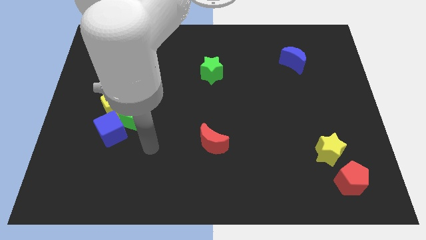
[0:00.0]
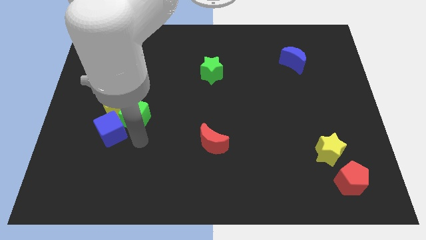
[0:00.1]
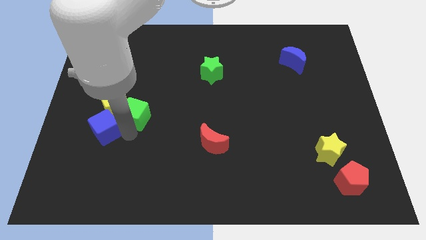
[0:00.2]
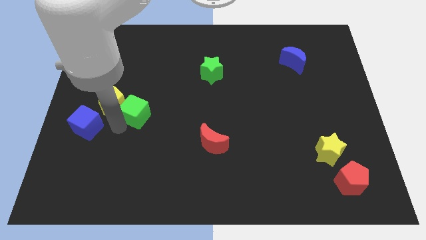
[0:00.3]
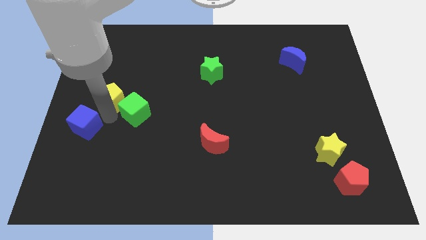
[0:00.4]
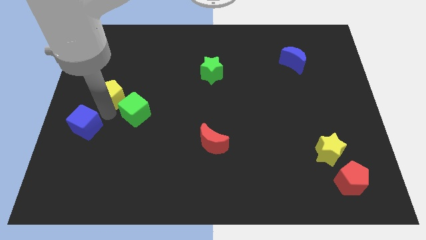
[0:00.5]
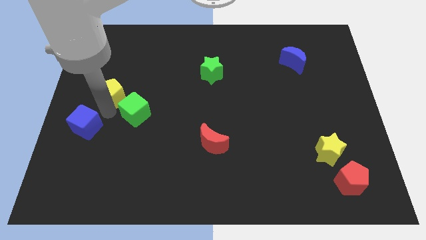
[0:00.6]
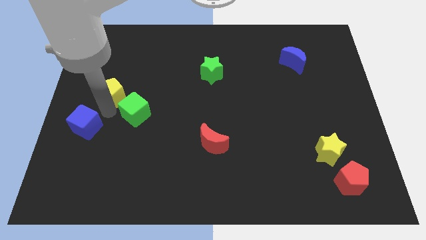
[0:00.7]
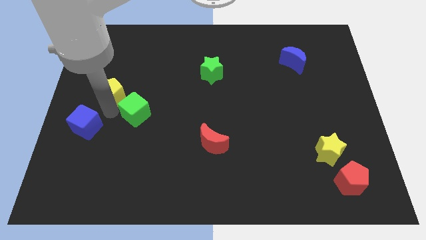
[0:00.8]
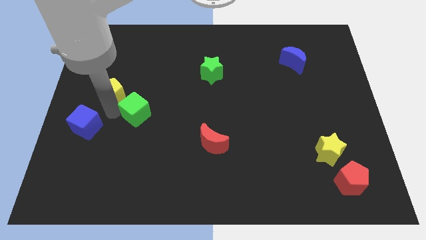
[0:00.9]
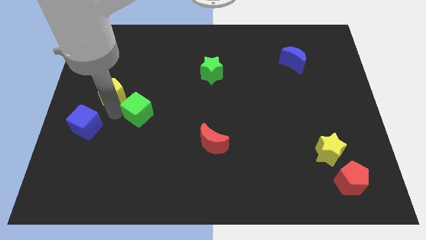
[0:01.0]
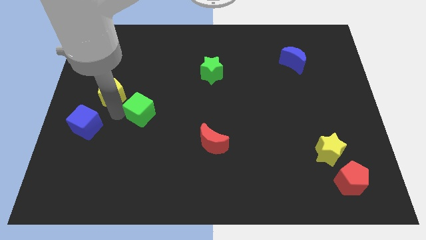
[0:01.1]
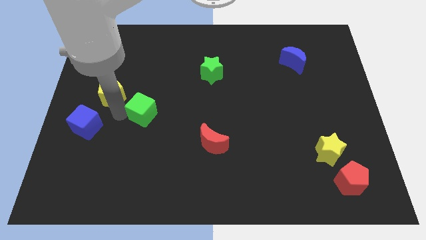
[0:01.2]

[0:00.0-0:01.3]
pull the green cube apart from the yellow pentagon and blue cube

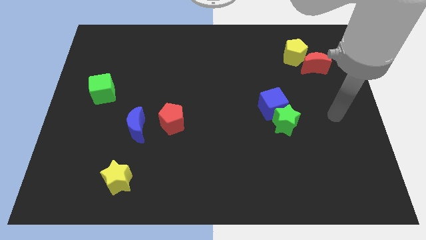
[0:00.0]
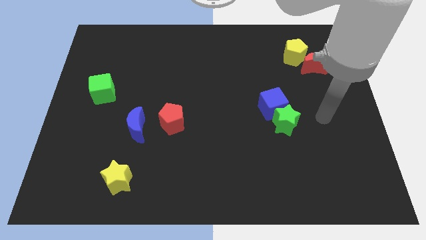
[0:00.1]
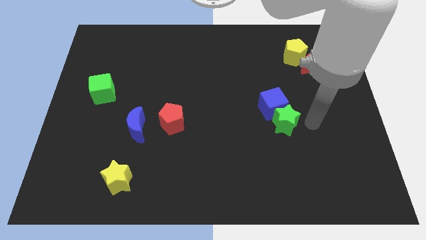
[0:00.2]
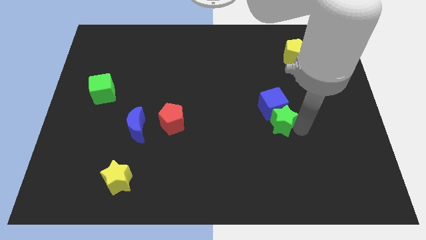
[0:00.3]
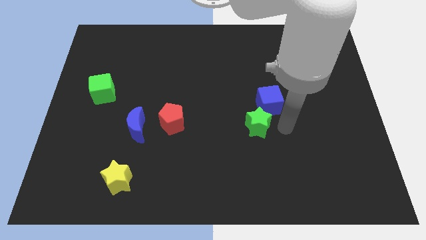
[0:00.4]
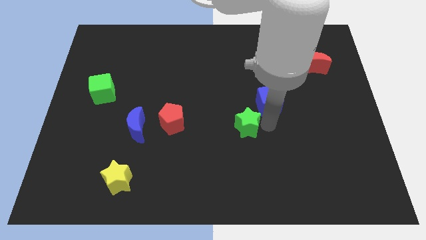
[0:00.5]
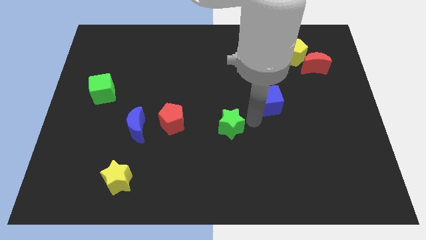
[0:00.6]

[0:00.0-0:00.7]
separate the blue cube from the green star

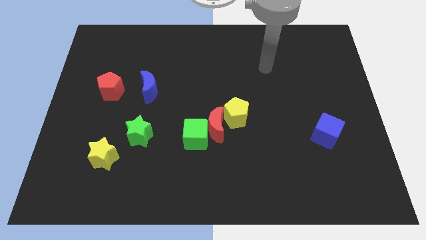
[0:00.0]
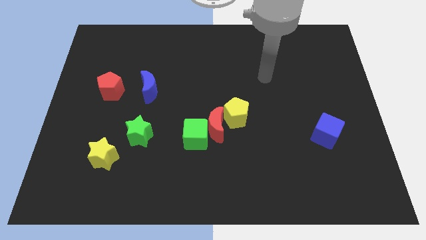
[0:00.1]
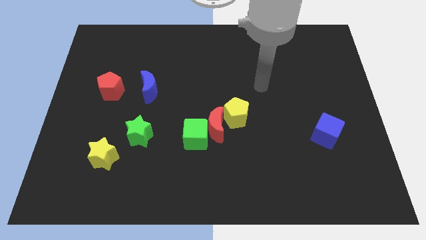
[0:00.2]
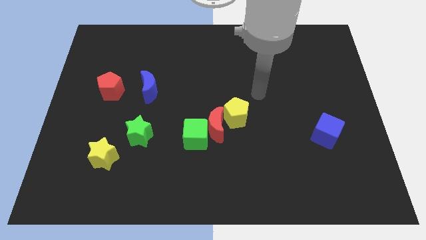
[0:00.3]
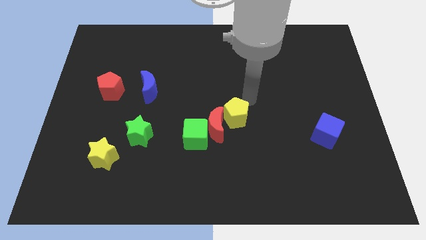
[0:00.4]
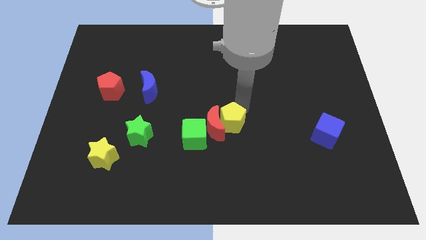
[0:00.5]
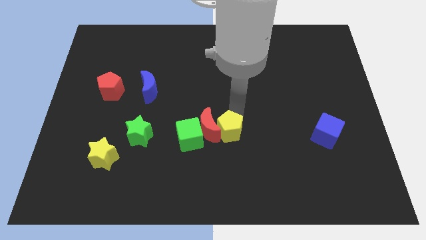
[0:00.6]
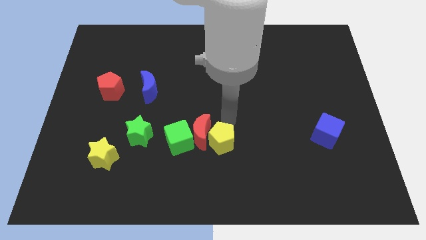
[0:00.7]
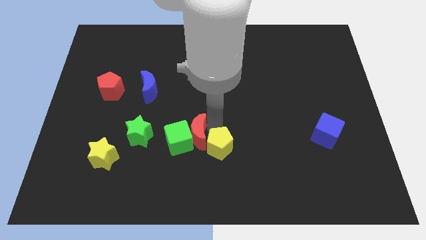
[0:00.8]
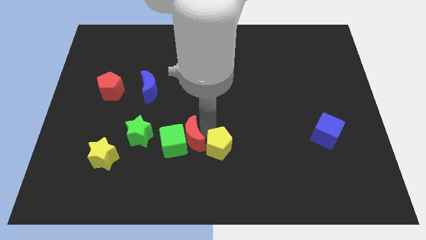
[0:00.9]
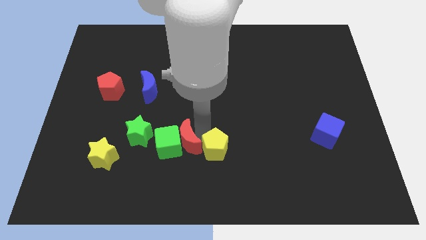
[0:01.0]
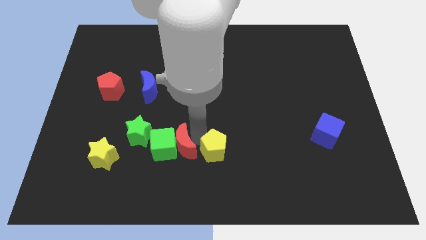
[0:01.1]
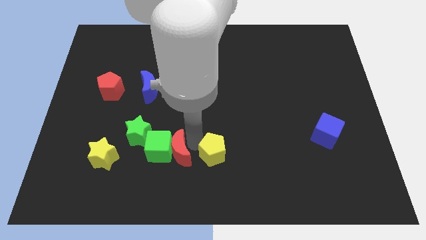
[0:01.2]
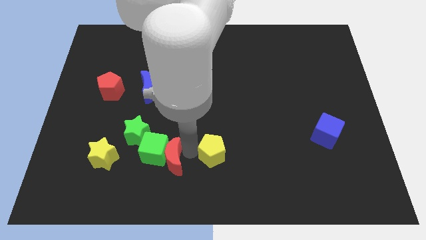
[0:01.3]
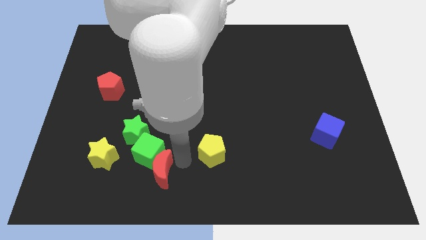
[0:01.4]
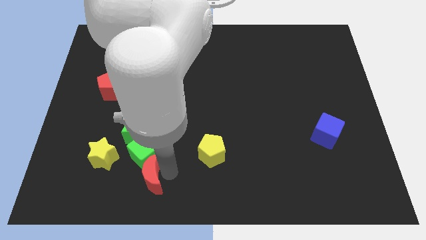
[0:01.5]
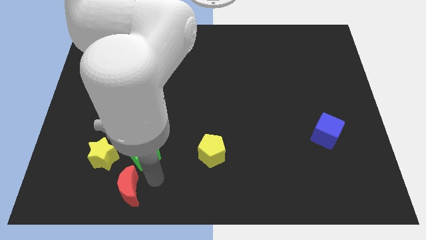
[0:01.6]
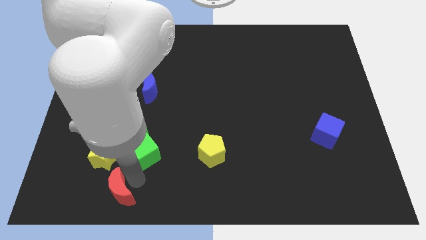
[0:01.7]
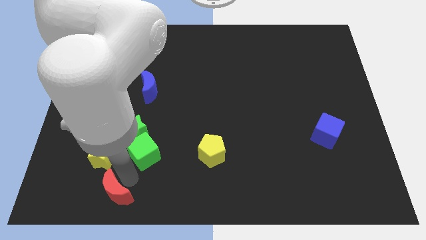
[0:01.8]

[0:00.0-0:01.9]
move the green cube away from the red moon

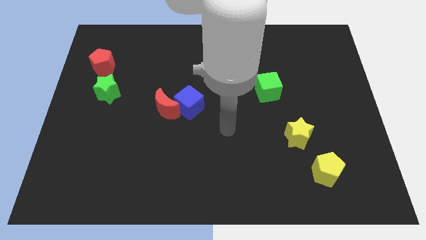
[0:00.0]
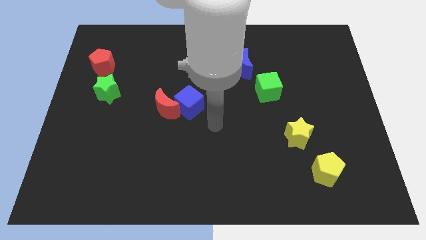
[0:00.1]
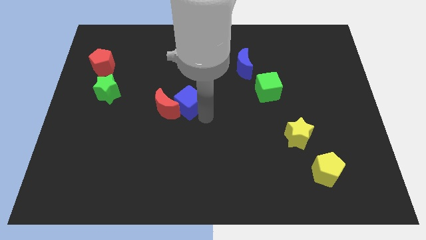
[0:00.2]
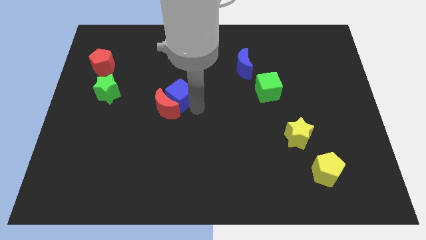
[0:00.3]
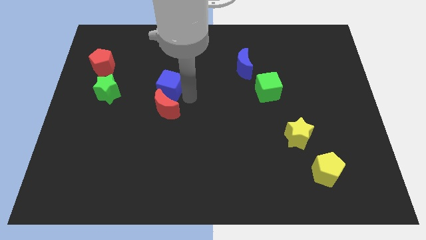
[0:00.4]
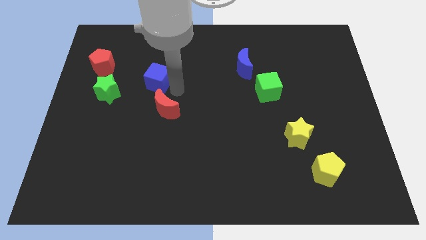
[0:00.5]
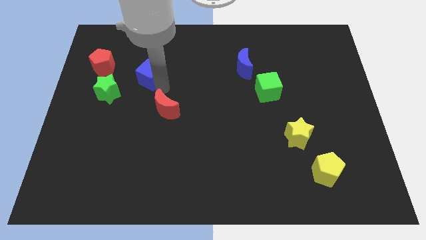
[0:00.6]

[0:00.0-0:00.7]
move the red moon away from the blue cube

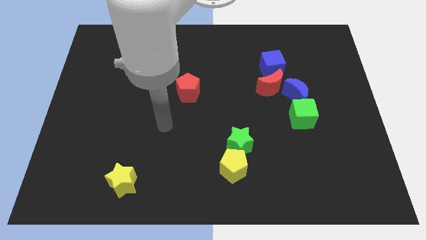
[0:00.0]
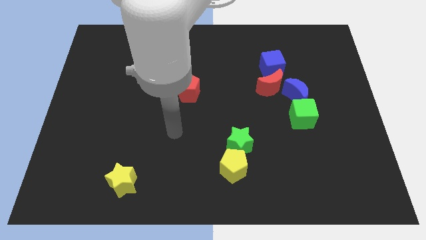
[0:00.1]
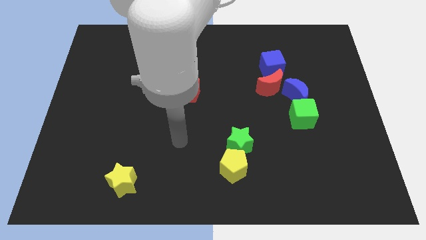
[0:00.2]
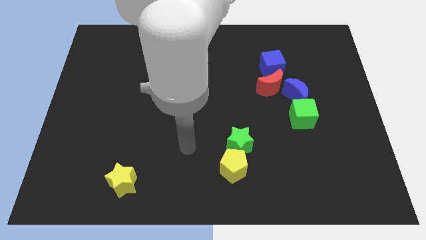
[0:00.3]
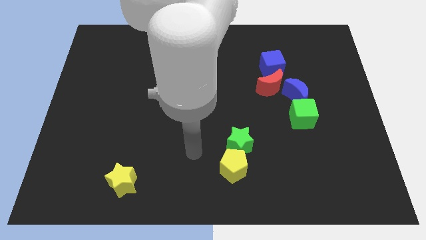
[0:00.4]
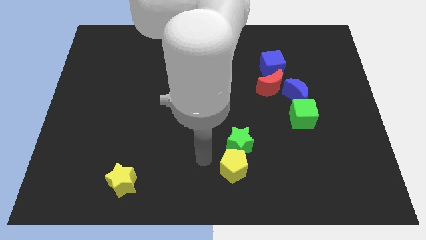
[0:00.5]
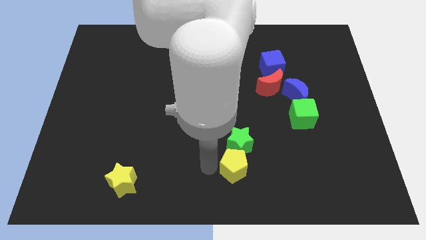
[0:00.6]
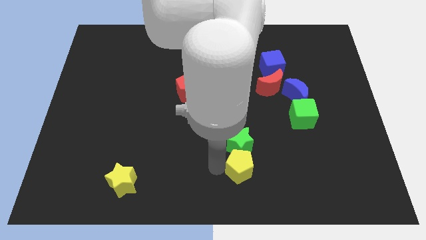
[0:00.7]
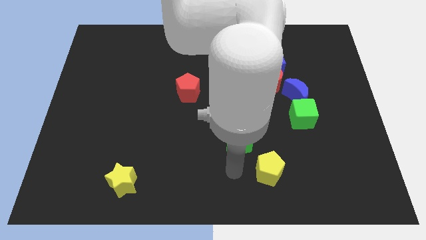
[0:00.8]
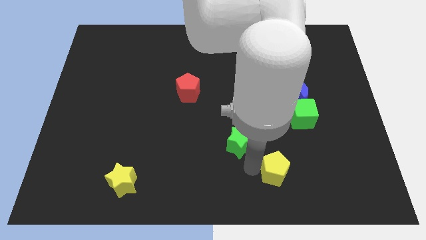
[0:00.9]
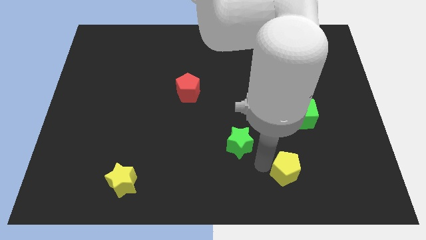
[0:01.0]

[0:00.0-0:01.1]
separate the green star from the yellow pentagon

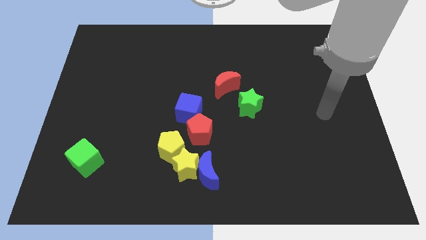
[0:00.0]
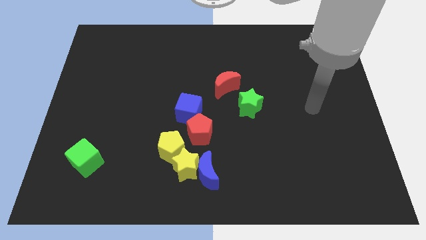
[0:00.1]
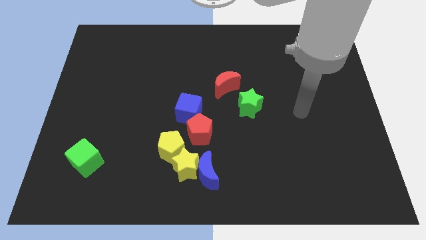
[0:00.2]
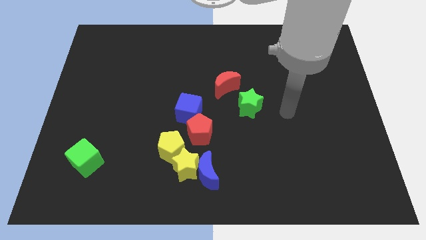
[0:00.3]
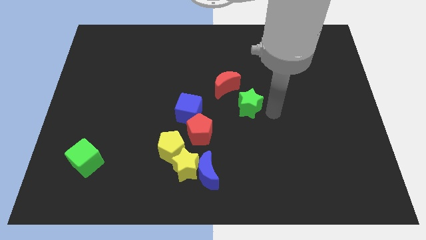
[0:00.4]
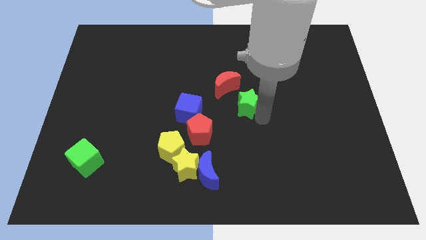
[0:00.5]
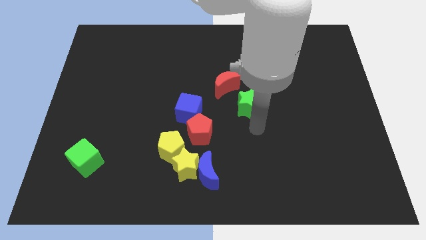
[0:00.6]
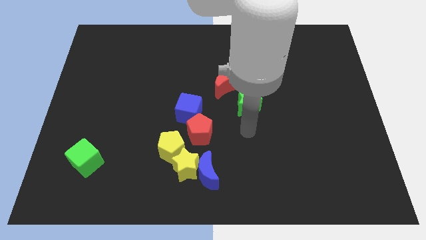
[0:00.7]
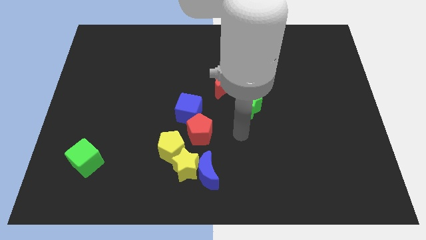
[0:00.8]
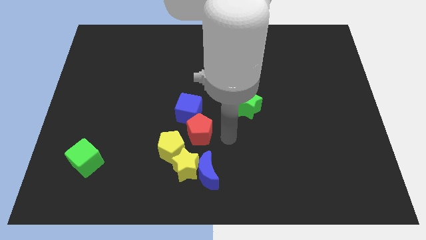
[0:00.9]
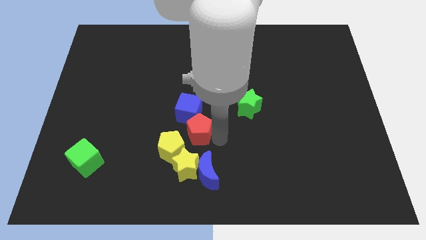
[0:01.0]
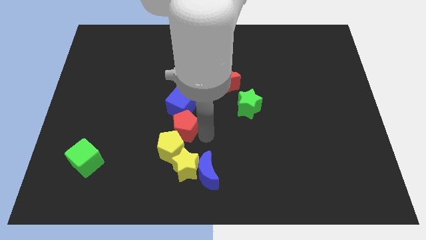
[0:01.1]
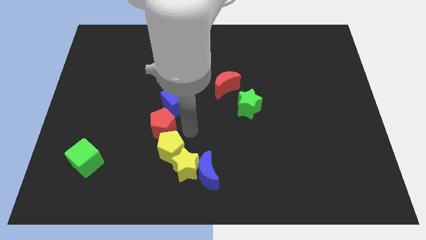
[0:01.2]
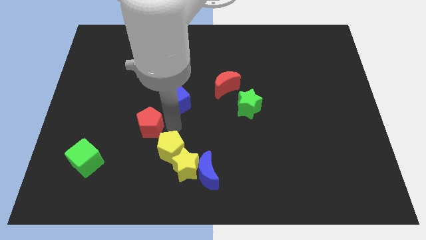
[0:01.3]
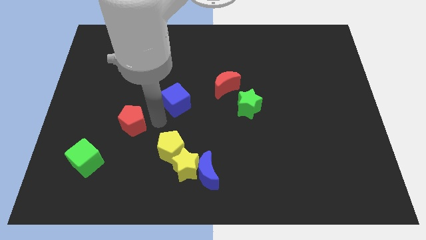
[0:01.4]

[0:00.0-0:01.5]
move the blue cube away from the red pentagon

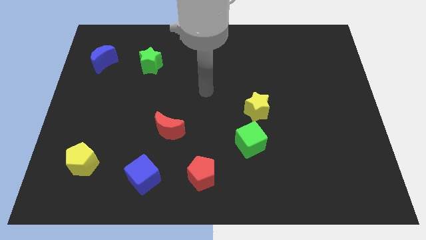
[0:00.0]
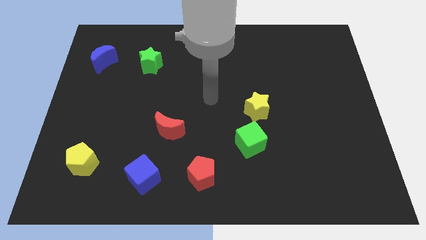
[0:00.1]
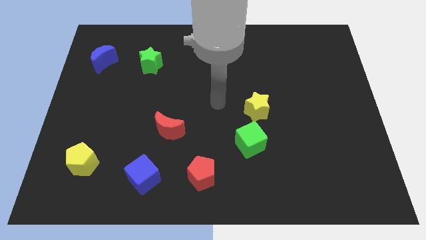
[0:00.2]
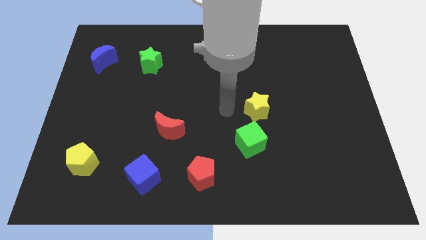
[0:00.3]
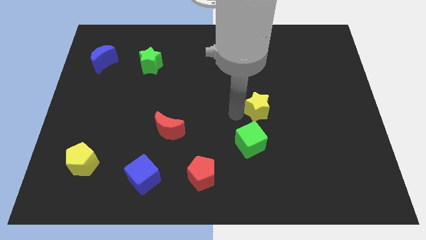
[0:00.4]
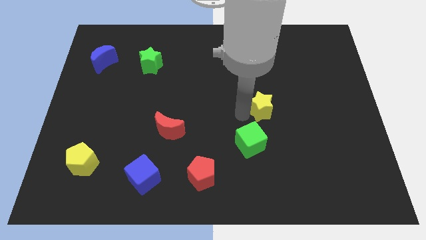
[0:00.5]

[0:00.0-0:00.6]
pull the green cube apart from the yellow star

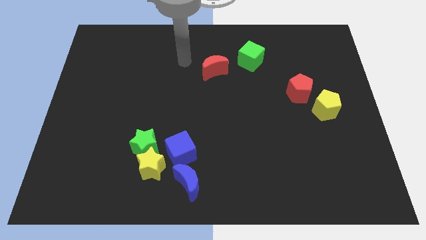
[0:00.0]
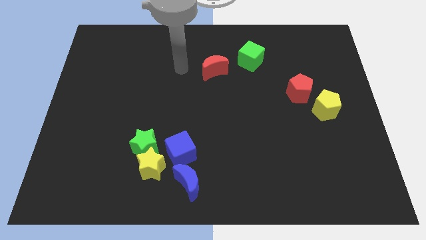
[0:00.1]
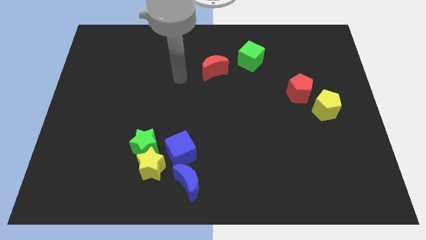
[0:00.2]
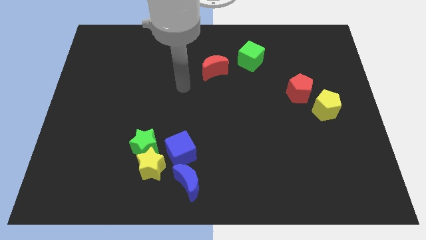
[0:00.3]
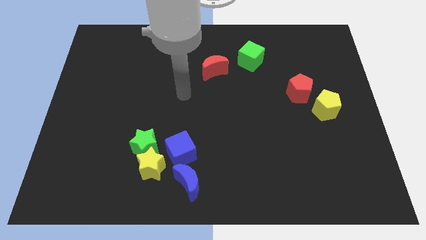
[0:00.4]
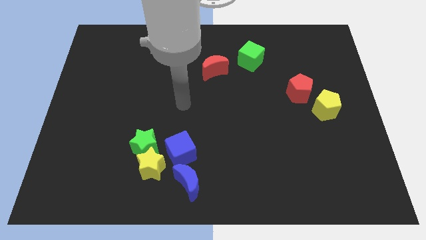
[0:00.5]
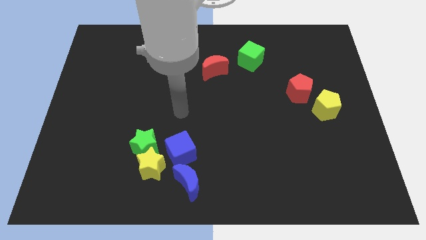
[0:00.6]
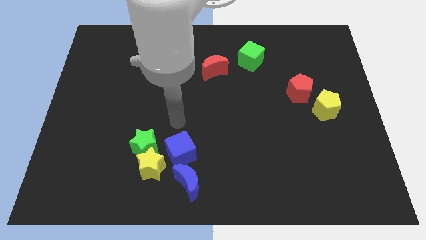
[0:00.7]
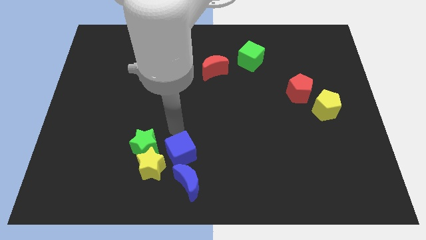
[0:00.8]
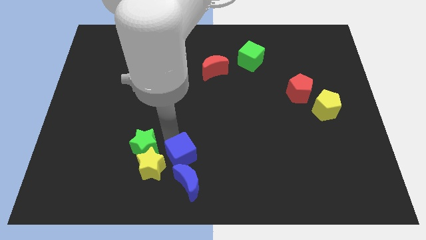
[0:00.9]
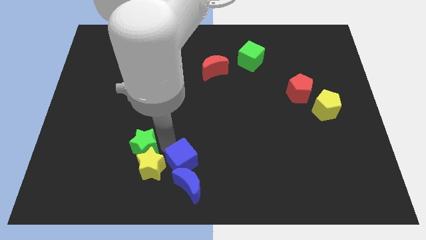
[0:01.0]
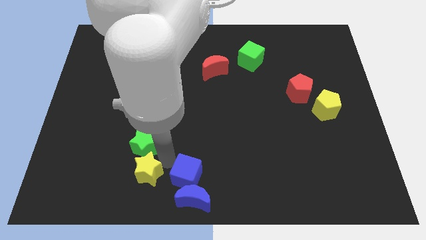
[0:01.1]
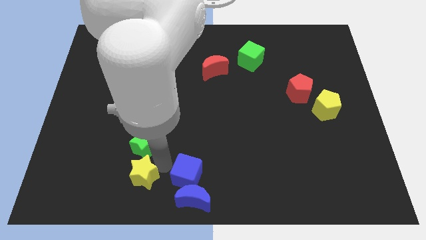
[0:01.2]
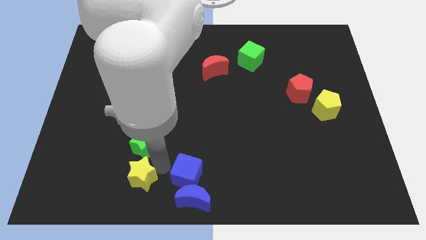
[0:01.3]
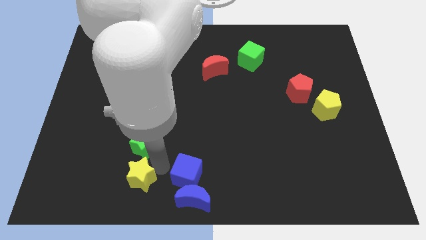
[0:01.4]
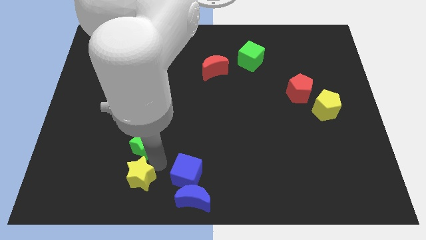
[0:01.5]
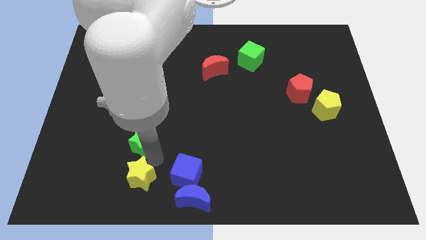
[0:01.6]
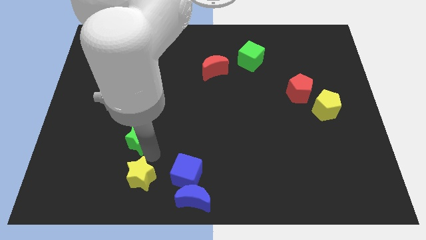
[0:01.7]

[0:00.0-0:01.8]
pull the green star apart from the yellow star and blue cube
